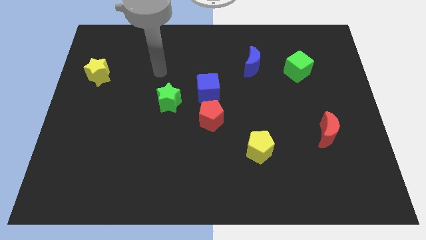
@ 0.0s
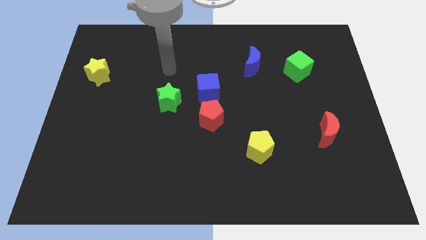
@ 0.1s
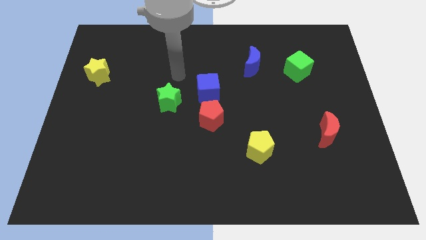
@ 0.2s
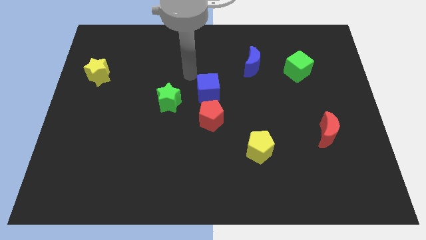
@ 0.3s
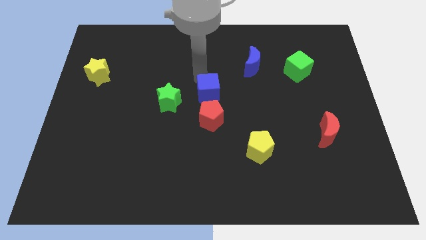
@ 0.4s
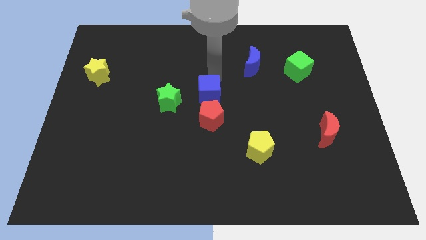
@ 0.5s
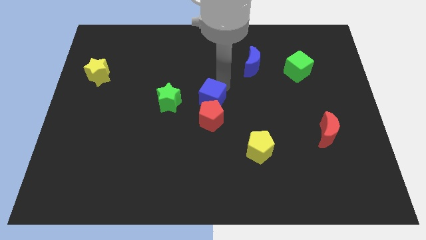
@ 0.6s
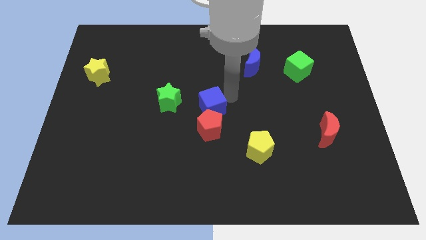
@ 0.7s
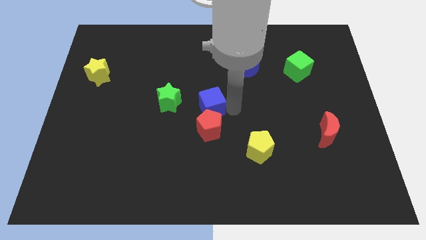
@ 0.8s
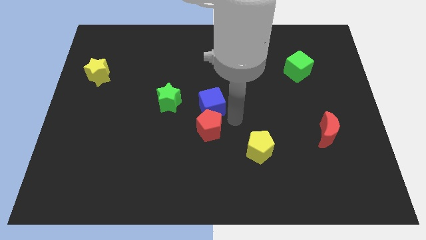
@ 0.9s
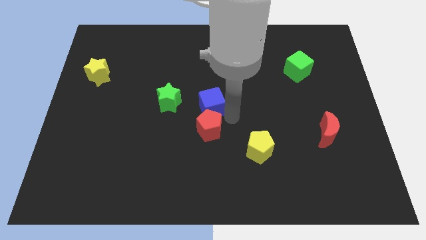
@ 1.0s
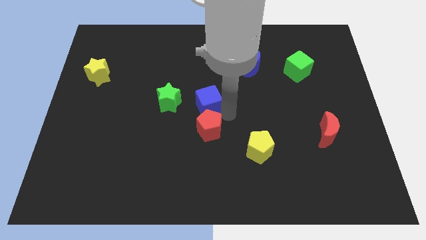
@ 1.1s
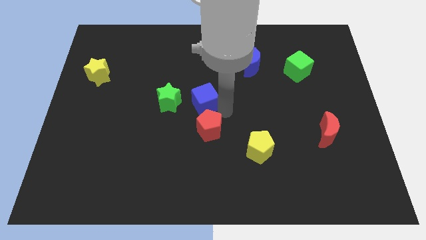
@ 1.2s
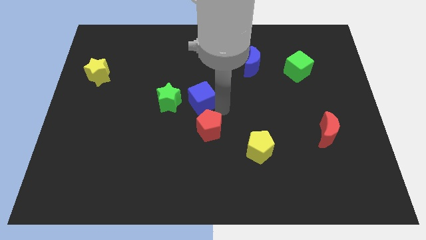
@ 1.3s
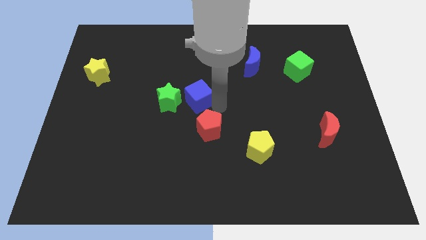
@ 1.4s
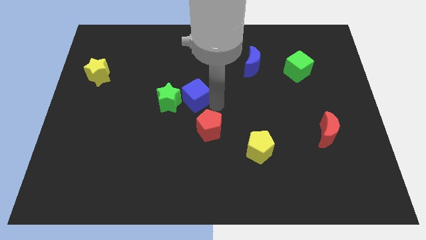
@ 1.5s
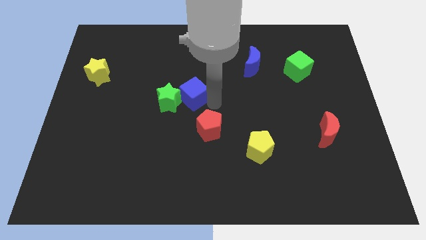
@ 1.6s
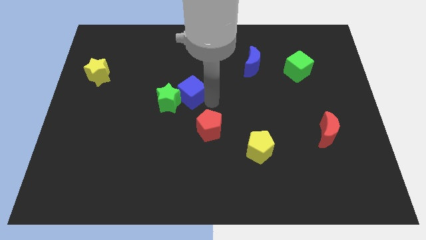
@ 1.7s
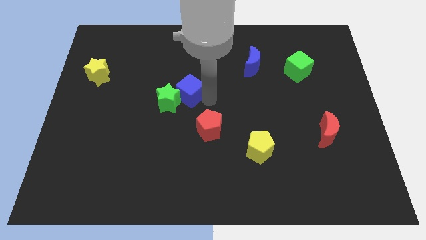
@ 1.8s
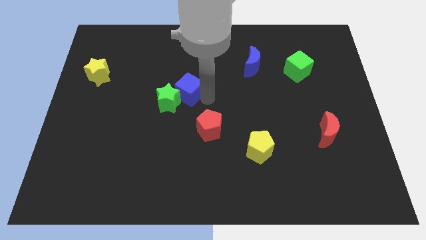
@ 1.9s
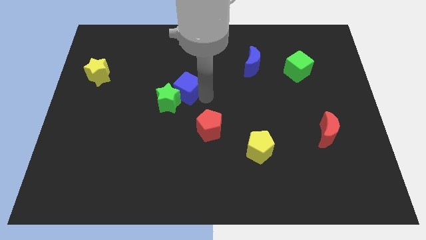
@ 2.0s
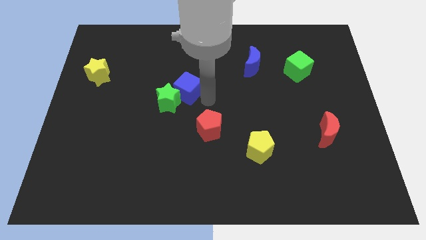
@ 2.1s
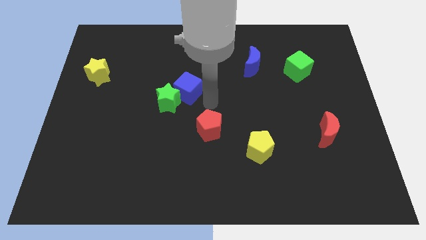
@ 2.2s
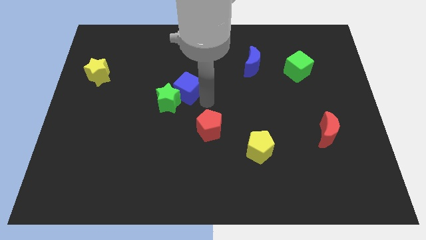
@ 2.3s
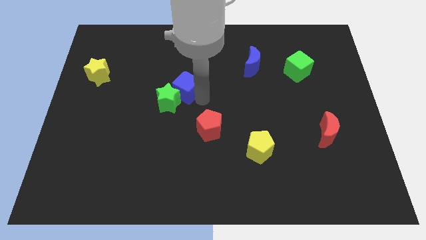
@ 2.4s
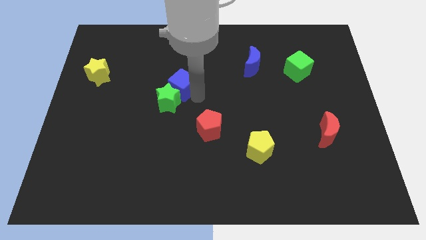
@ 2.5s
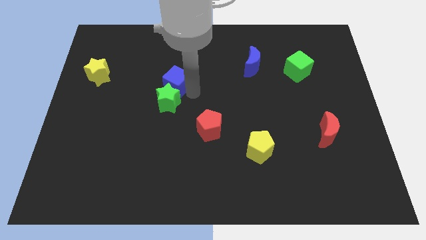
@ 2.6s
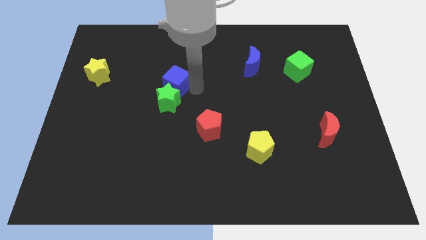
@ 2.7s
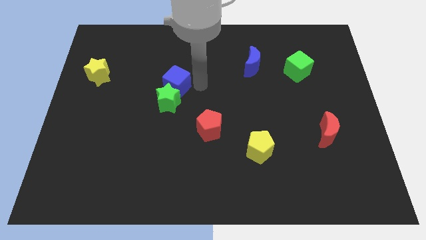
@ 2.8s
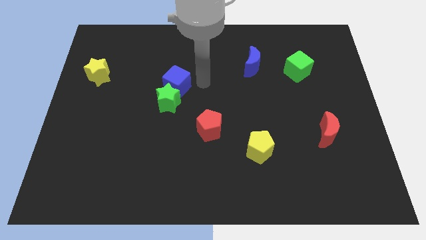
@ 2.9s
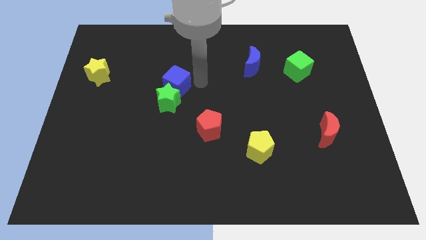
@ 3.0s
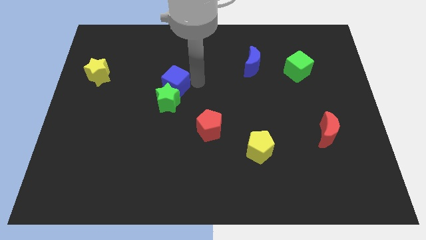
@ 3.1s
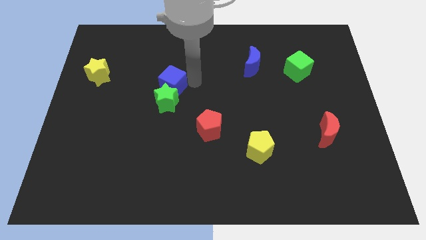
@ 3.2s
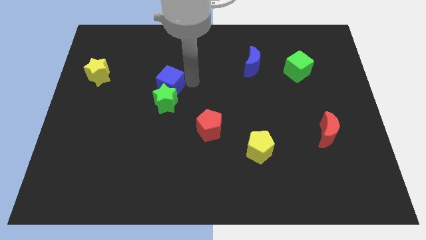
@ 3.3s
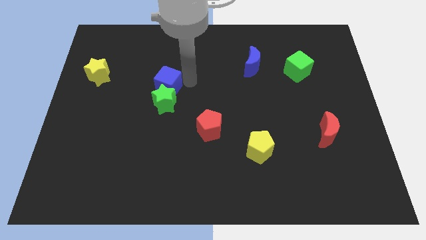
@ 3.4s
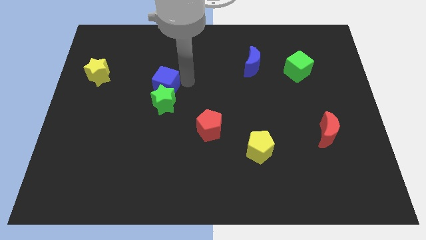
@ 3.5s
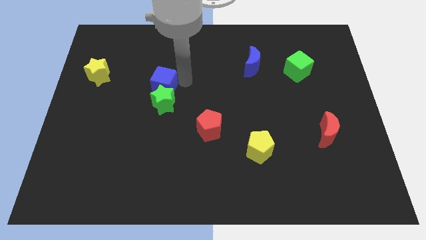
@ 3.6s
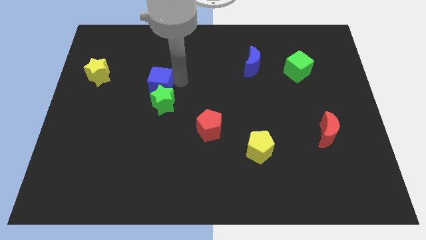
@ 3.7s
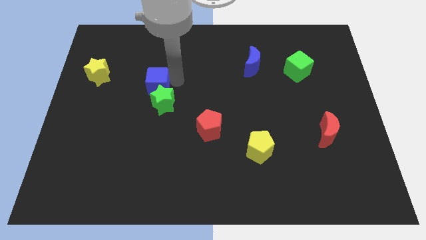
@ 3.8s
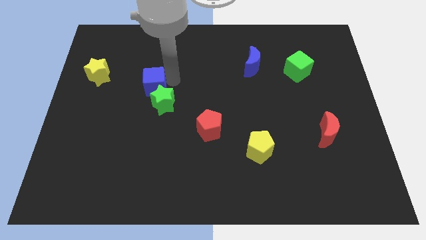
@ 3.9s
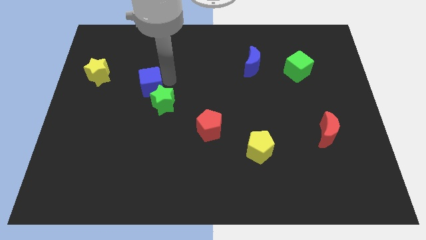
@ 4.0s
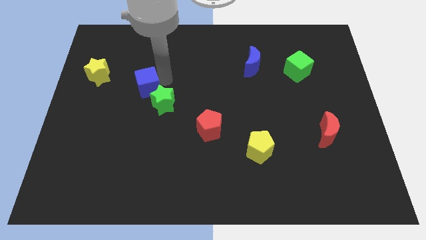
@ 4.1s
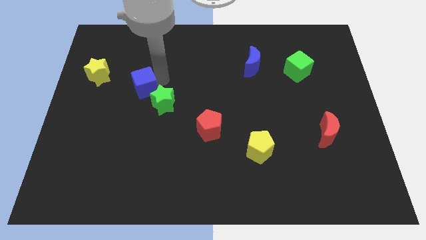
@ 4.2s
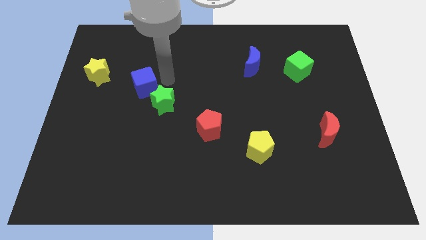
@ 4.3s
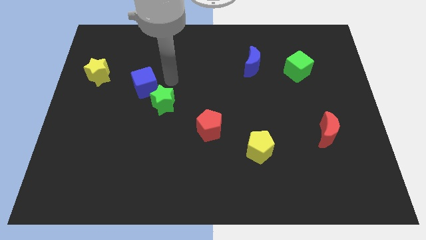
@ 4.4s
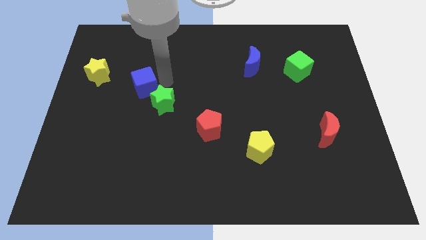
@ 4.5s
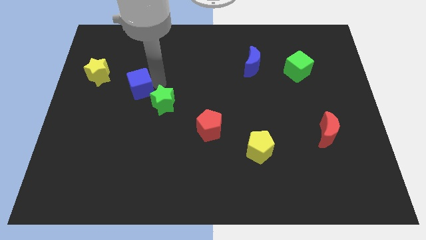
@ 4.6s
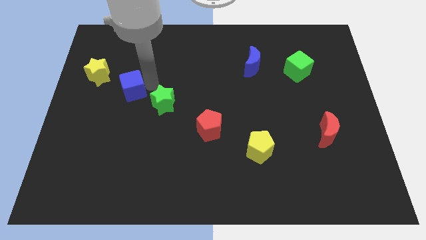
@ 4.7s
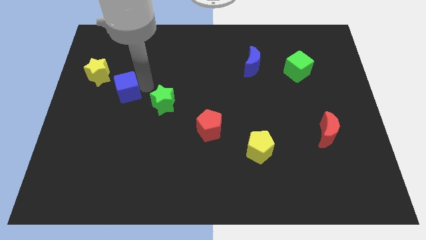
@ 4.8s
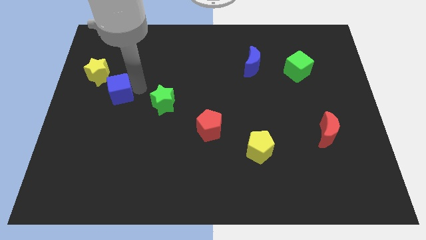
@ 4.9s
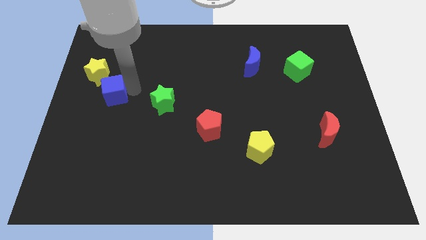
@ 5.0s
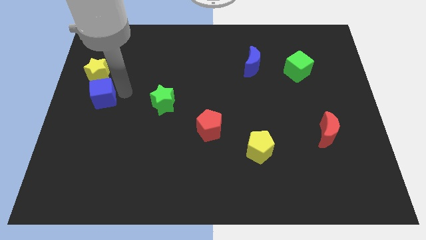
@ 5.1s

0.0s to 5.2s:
move the blue cube to the center left

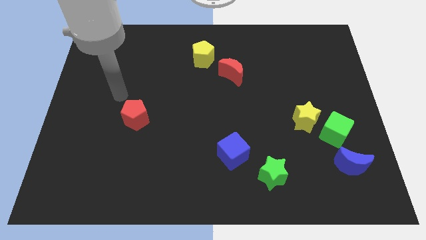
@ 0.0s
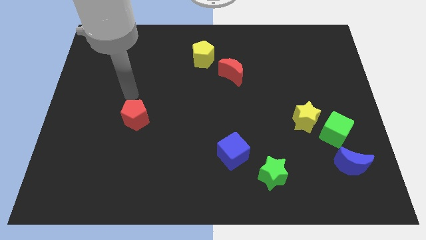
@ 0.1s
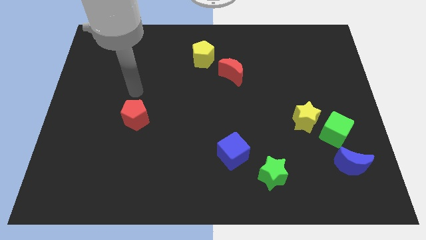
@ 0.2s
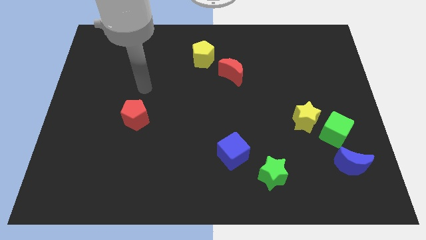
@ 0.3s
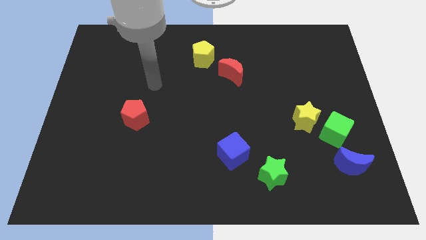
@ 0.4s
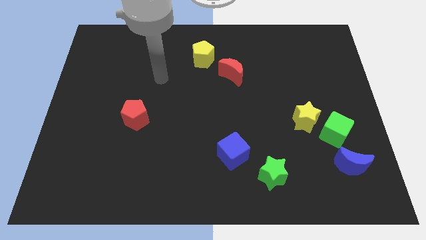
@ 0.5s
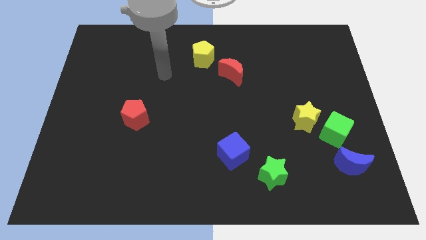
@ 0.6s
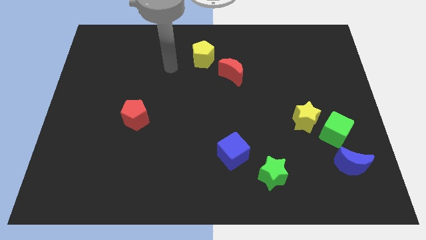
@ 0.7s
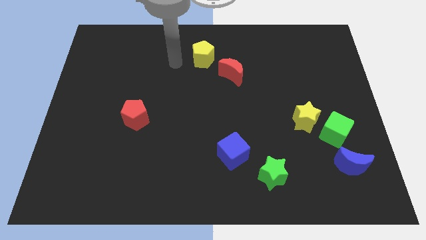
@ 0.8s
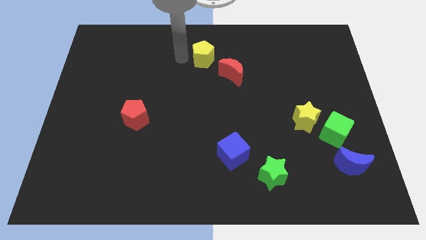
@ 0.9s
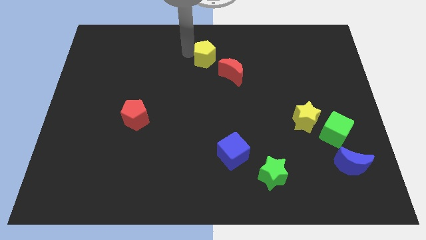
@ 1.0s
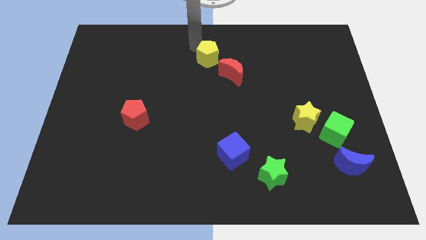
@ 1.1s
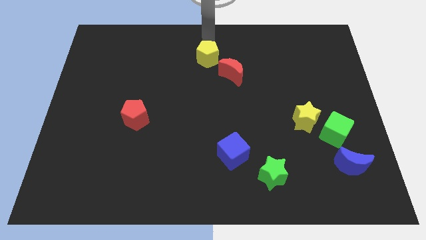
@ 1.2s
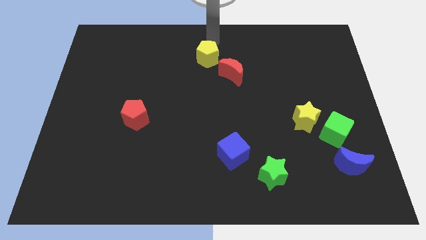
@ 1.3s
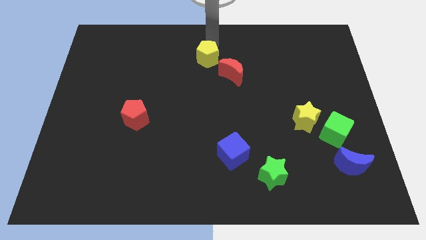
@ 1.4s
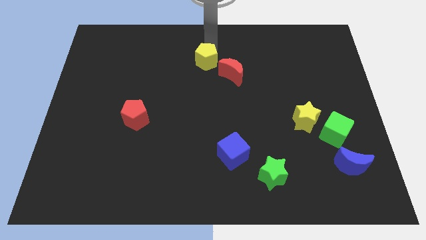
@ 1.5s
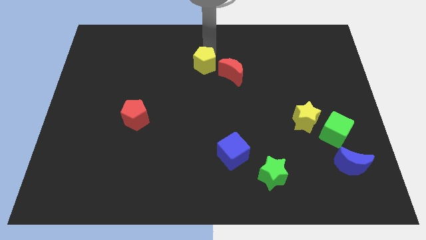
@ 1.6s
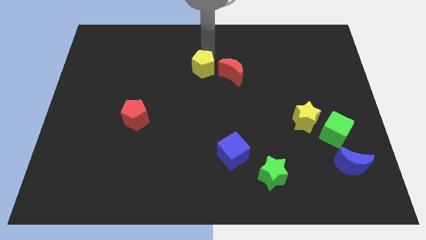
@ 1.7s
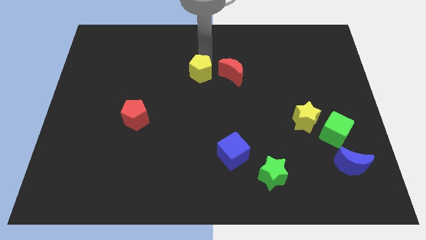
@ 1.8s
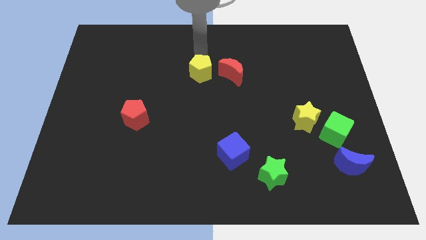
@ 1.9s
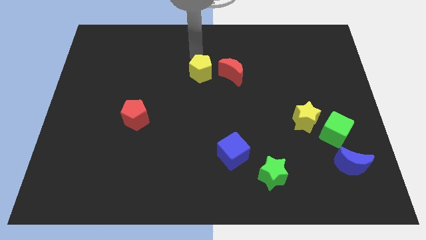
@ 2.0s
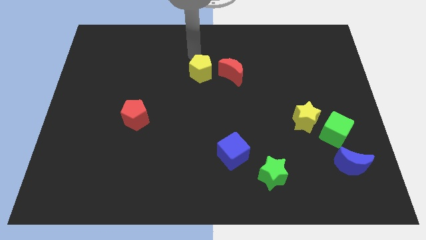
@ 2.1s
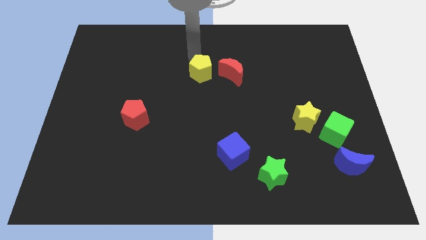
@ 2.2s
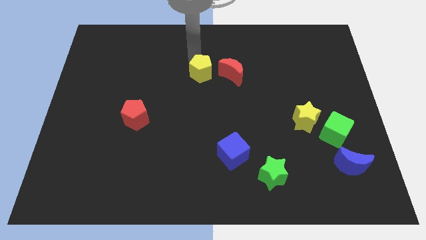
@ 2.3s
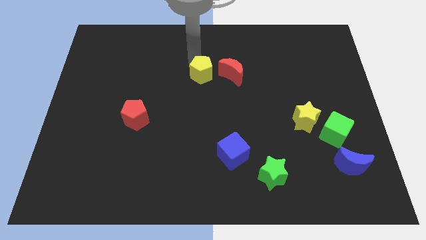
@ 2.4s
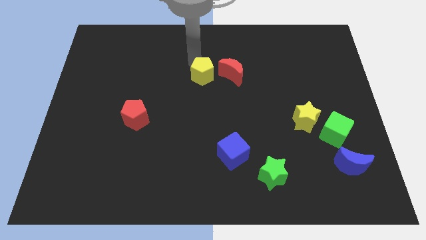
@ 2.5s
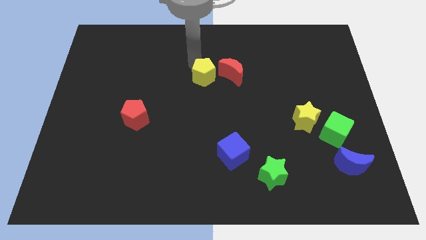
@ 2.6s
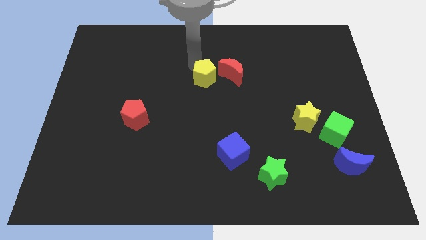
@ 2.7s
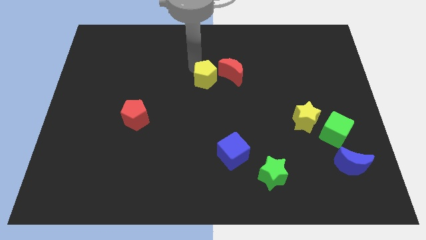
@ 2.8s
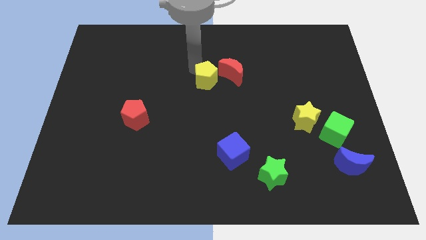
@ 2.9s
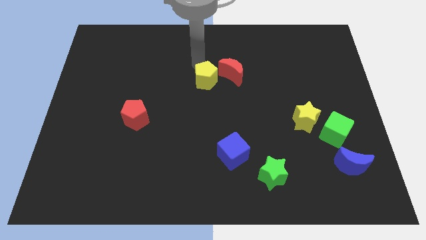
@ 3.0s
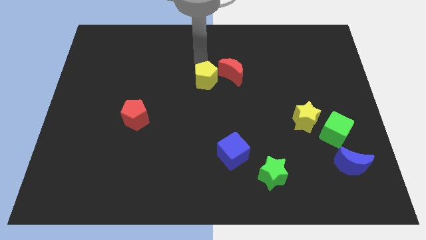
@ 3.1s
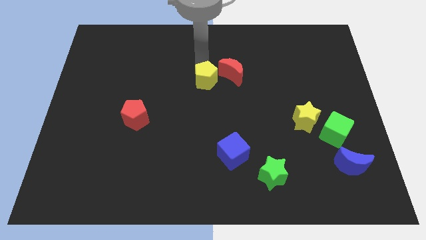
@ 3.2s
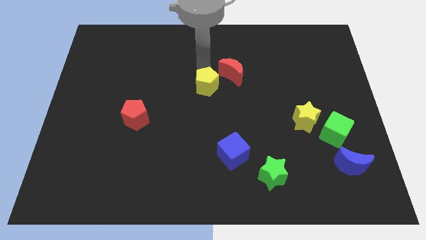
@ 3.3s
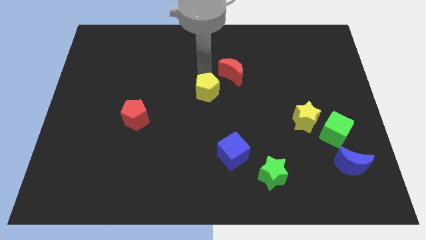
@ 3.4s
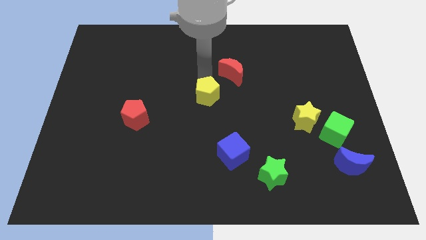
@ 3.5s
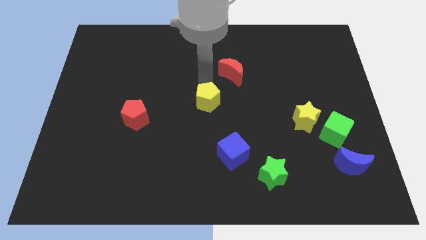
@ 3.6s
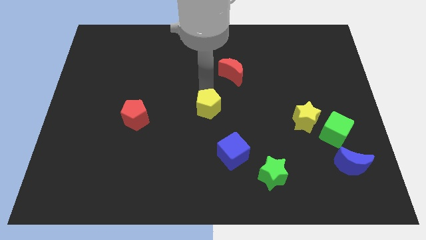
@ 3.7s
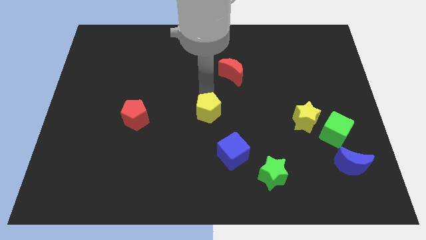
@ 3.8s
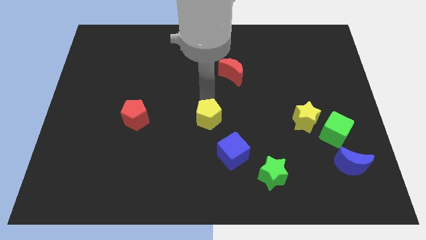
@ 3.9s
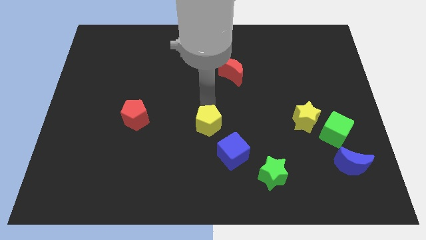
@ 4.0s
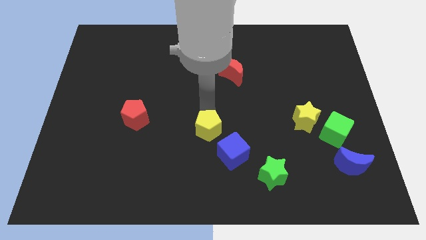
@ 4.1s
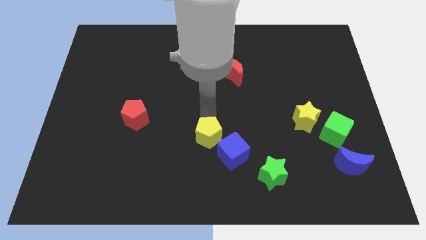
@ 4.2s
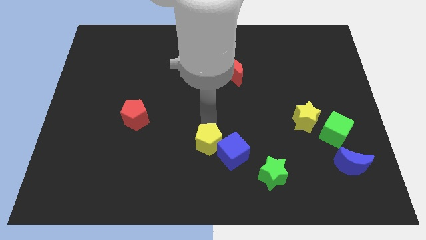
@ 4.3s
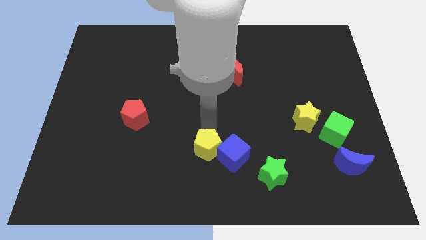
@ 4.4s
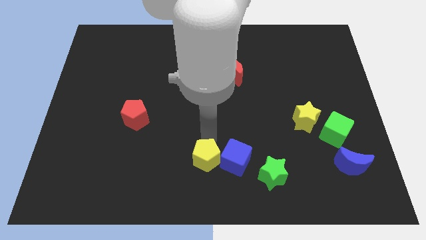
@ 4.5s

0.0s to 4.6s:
move the yellow pentagon to the bottom
